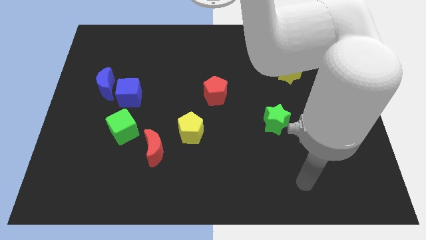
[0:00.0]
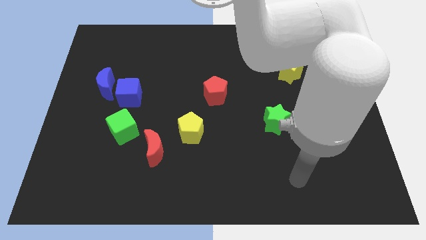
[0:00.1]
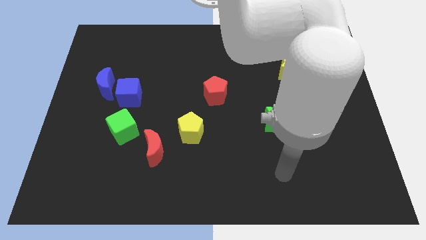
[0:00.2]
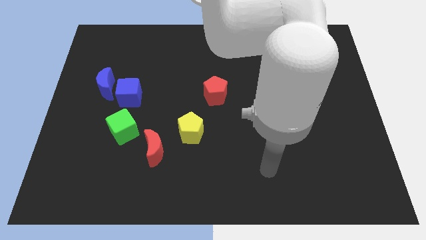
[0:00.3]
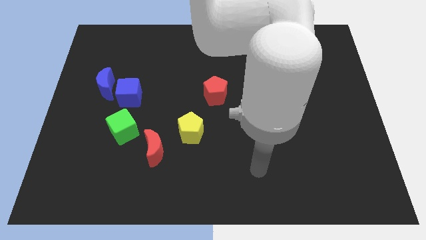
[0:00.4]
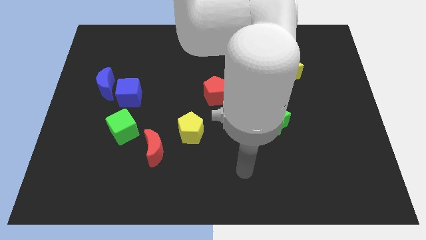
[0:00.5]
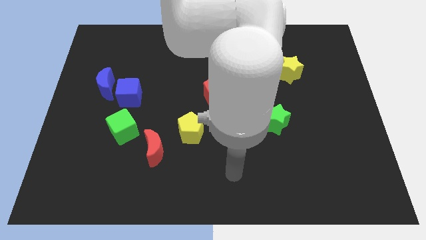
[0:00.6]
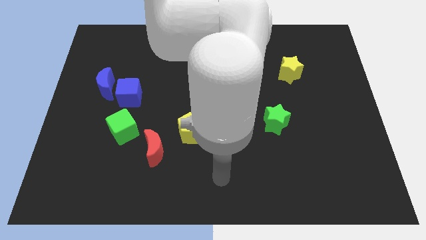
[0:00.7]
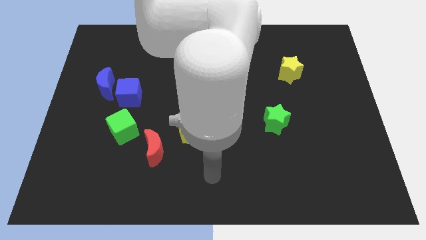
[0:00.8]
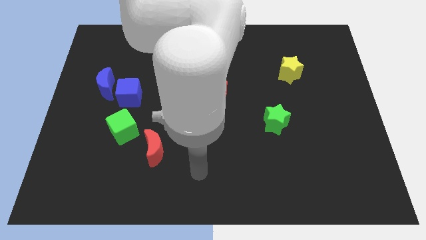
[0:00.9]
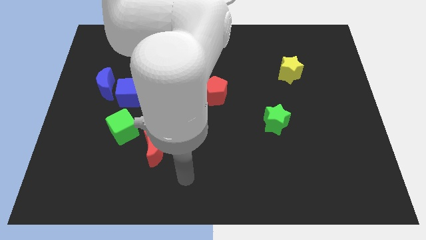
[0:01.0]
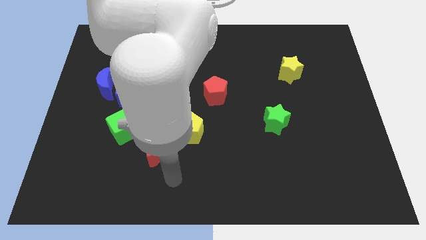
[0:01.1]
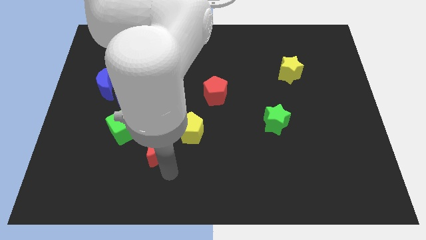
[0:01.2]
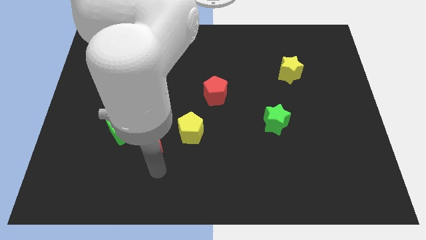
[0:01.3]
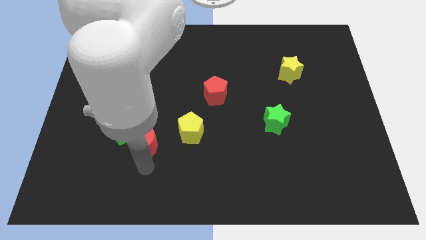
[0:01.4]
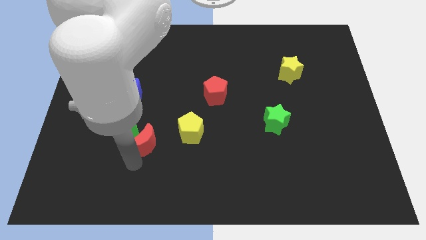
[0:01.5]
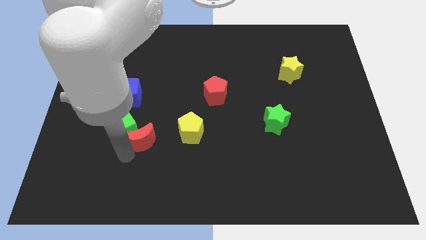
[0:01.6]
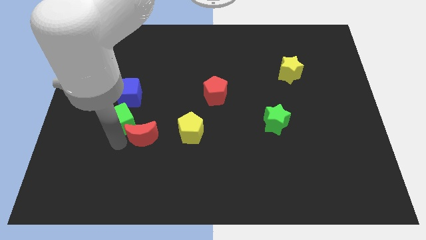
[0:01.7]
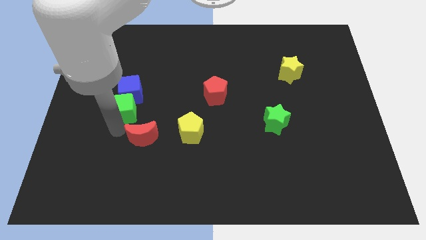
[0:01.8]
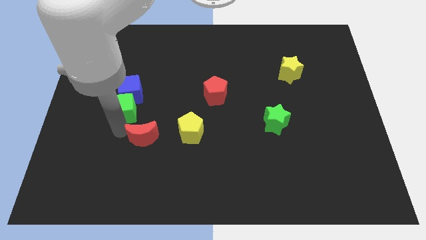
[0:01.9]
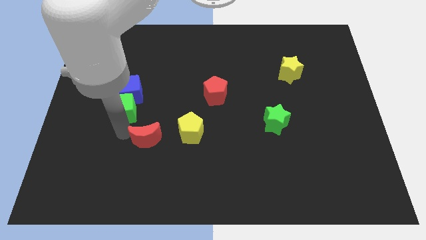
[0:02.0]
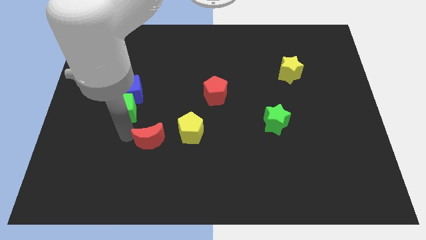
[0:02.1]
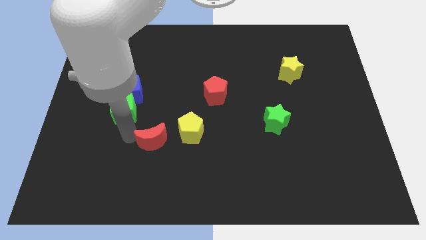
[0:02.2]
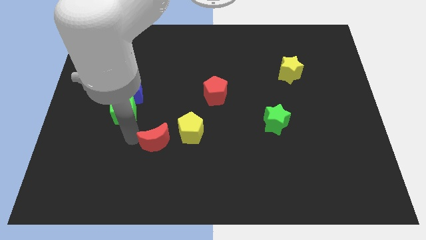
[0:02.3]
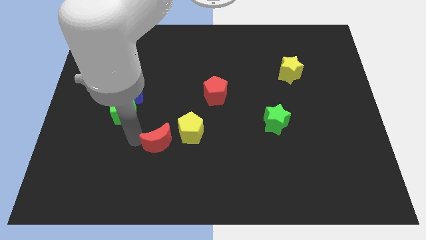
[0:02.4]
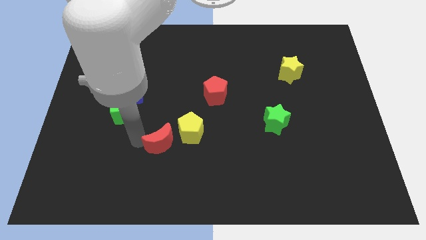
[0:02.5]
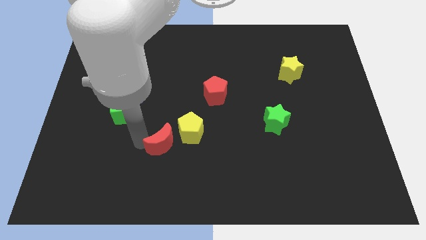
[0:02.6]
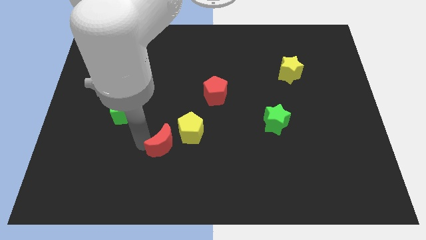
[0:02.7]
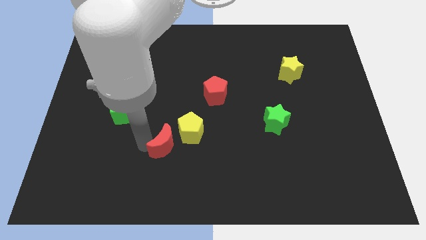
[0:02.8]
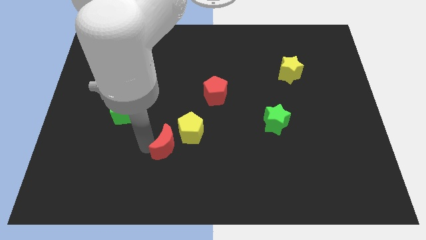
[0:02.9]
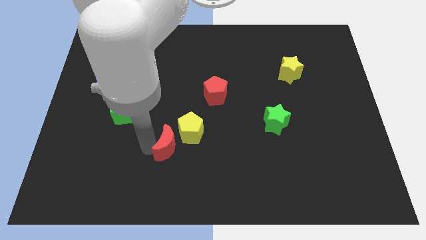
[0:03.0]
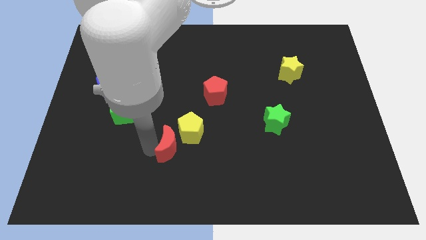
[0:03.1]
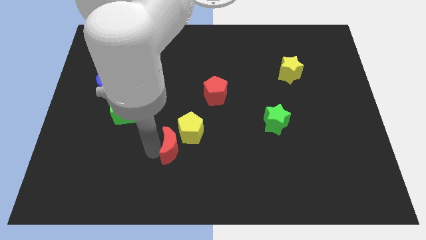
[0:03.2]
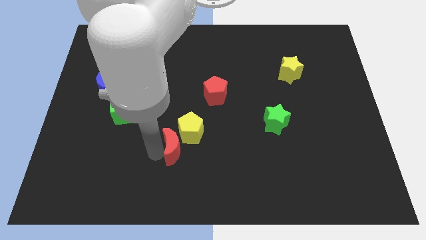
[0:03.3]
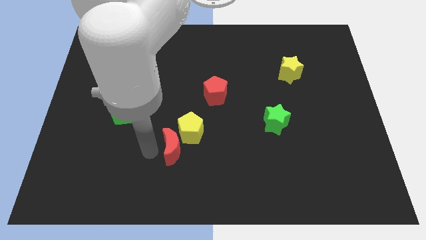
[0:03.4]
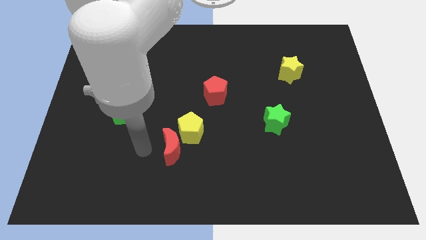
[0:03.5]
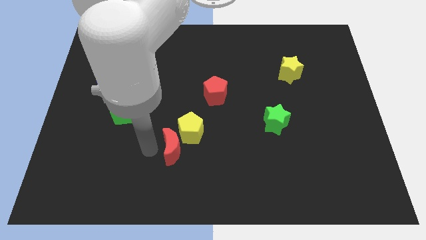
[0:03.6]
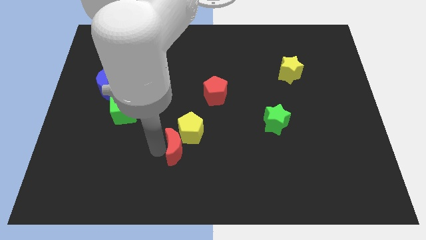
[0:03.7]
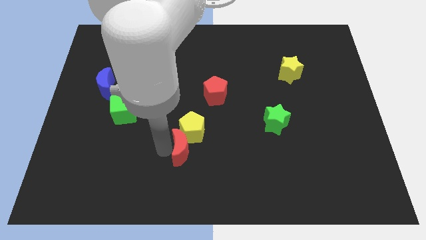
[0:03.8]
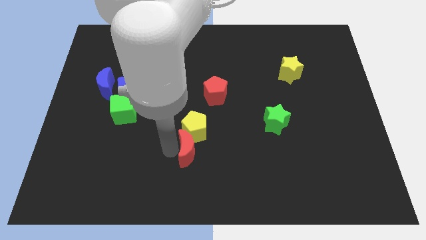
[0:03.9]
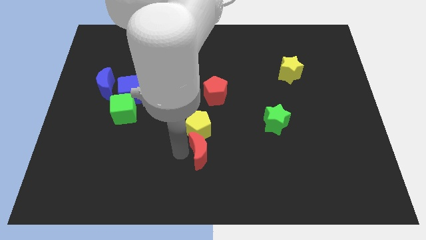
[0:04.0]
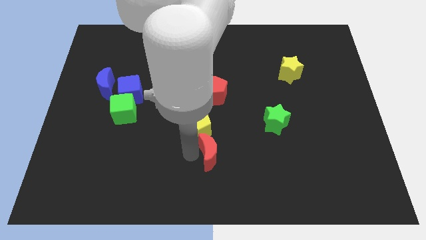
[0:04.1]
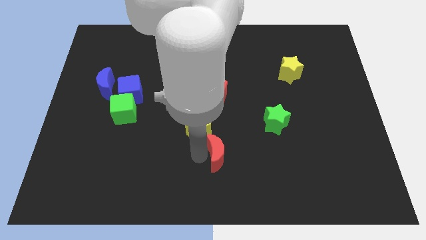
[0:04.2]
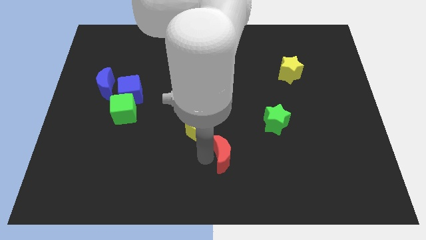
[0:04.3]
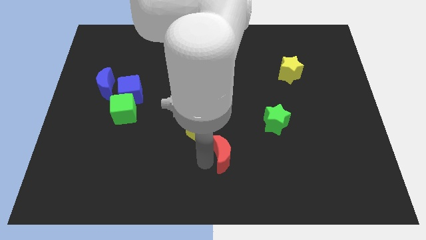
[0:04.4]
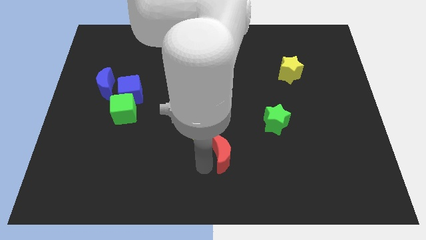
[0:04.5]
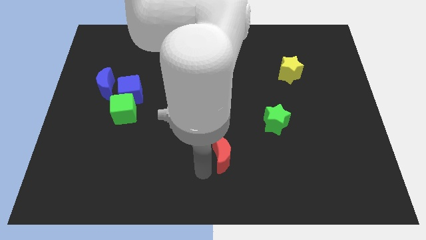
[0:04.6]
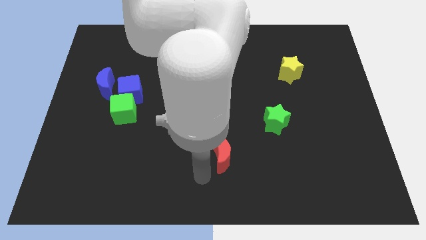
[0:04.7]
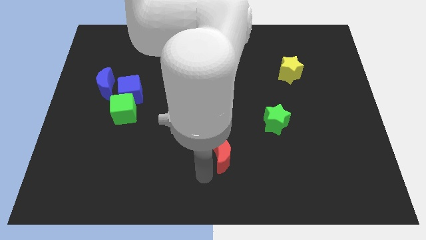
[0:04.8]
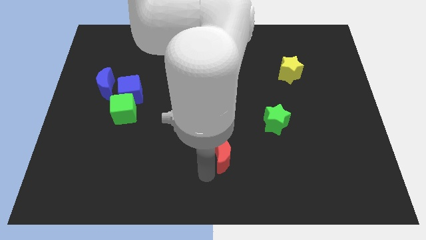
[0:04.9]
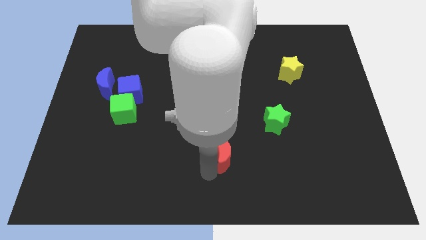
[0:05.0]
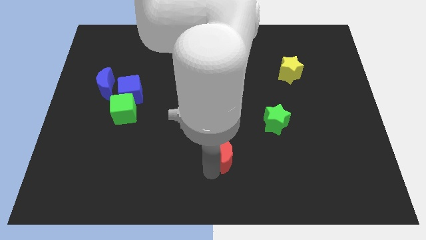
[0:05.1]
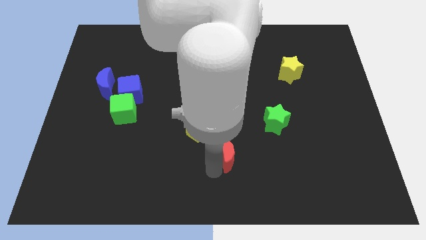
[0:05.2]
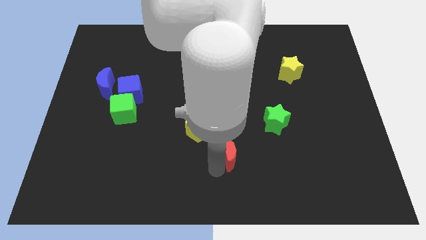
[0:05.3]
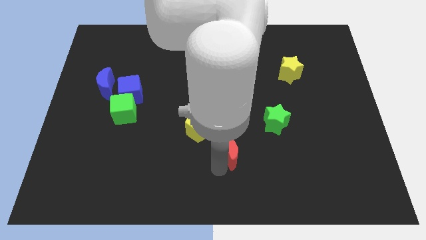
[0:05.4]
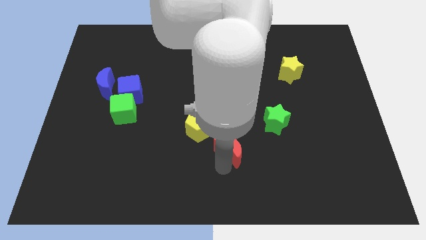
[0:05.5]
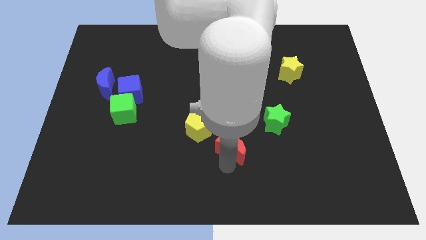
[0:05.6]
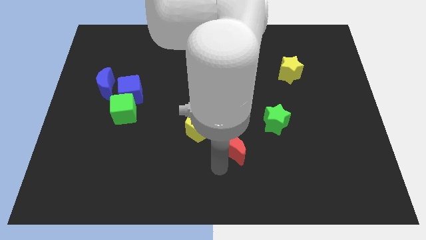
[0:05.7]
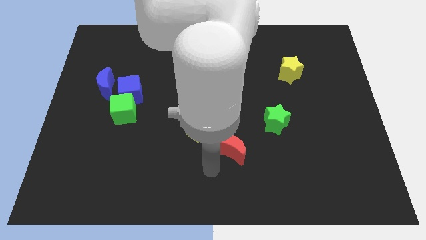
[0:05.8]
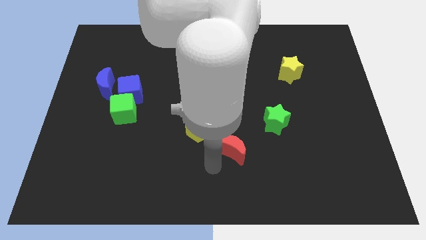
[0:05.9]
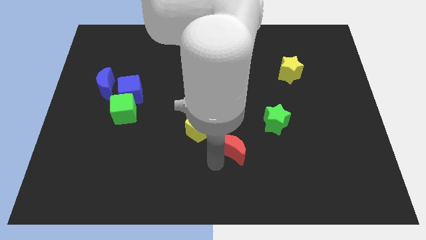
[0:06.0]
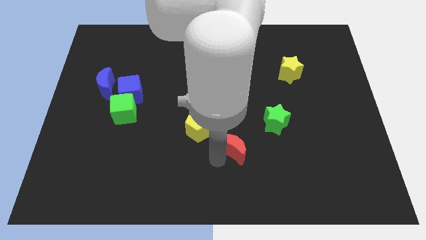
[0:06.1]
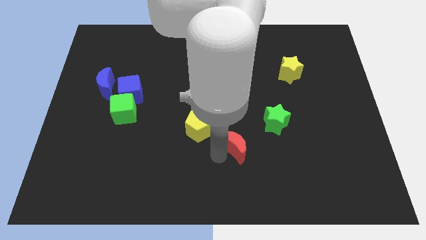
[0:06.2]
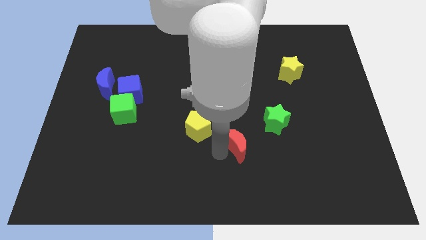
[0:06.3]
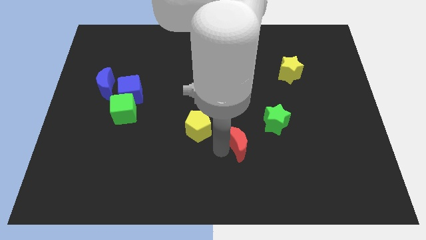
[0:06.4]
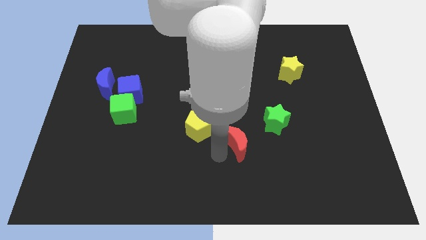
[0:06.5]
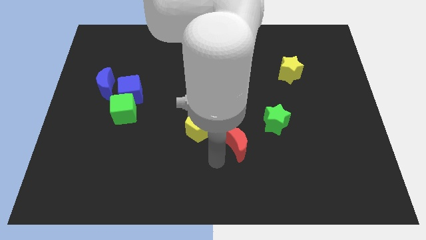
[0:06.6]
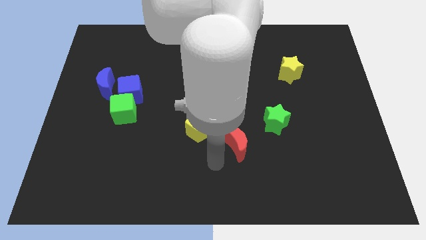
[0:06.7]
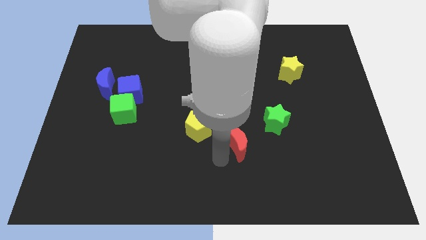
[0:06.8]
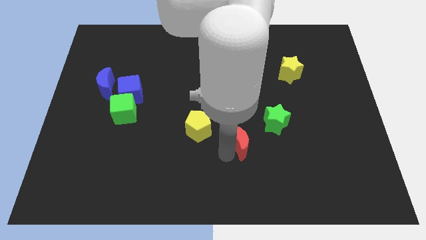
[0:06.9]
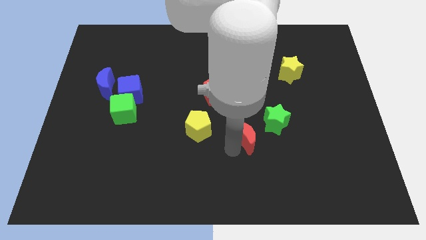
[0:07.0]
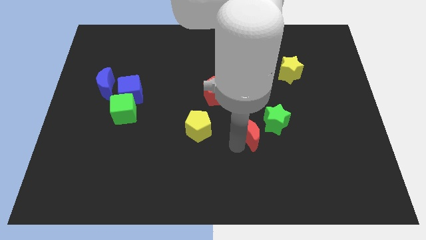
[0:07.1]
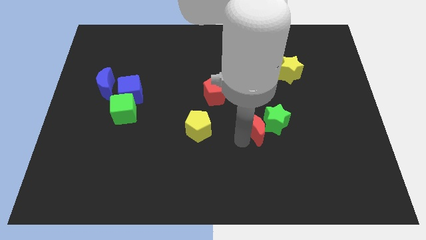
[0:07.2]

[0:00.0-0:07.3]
put the red moon to the green star

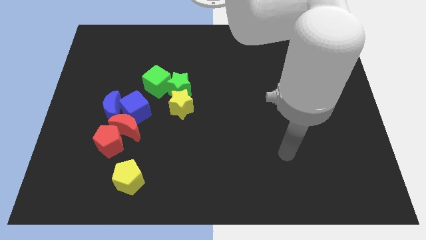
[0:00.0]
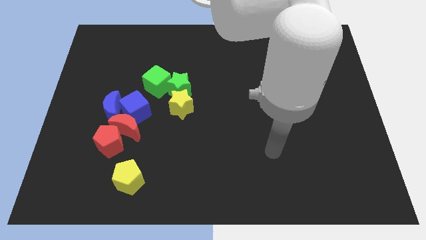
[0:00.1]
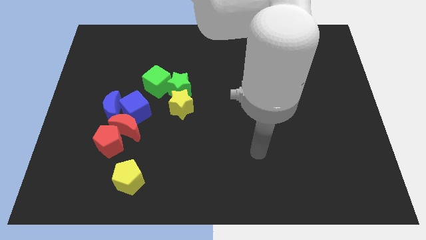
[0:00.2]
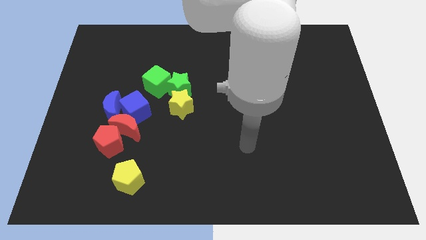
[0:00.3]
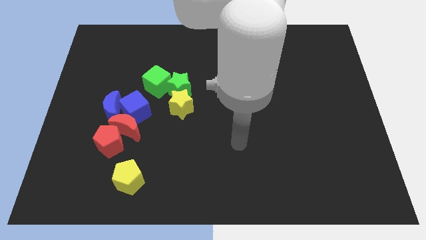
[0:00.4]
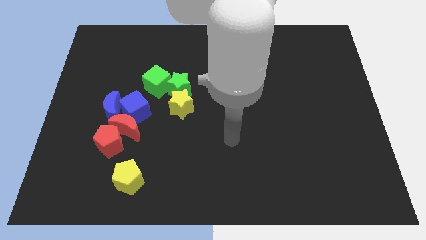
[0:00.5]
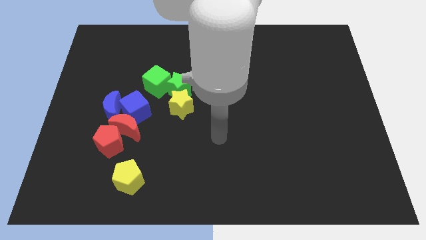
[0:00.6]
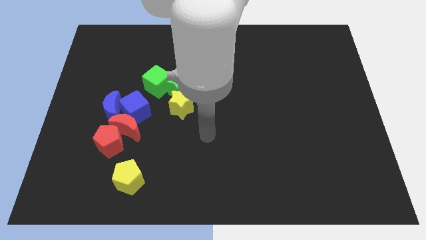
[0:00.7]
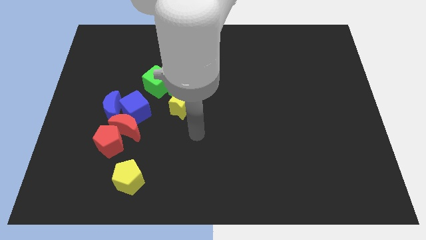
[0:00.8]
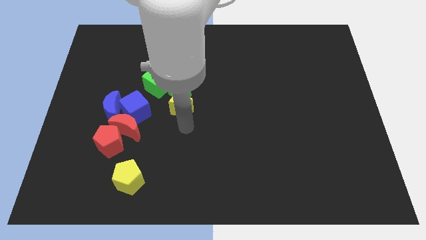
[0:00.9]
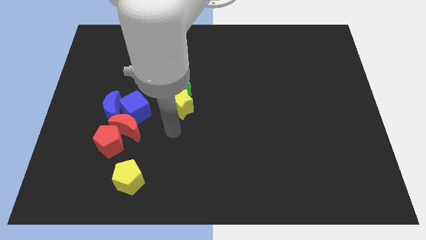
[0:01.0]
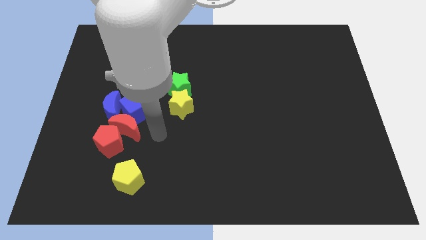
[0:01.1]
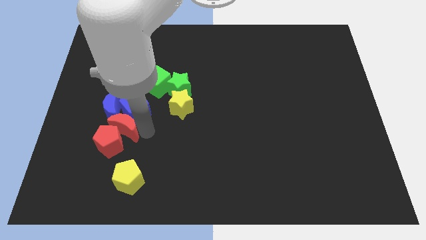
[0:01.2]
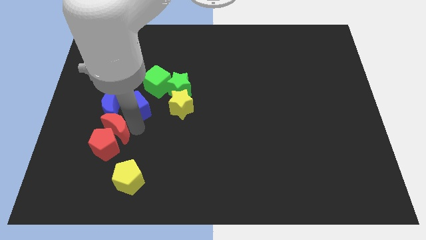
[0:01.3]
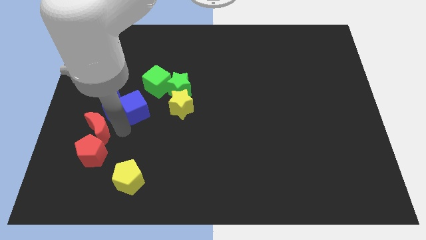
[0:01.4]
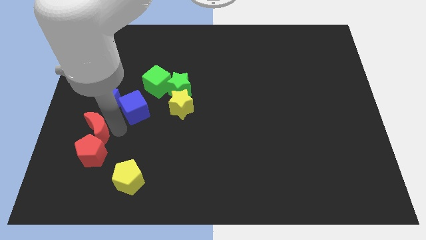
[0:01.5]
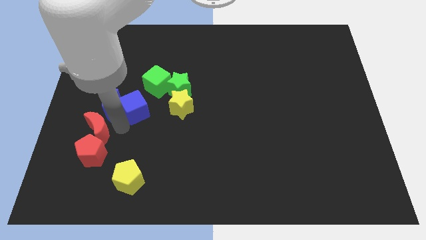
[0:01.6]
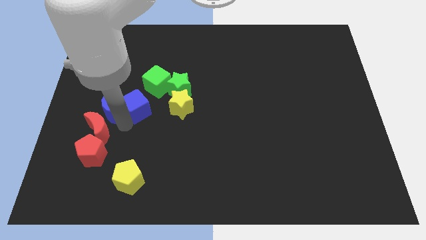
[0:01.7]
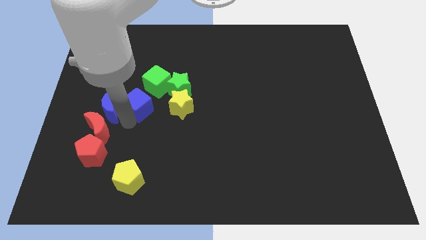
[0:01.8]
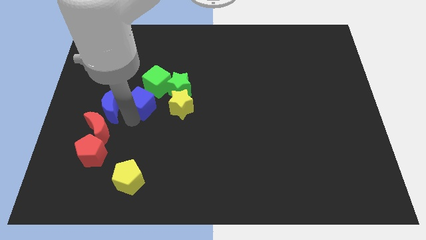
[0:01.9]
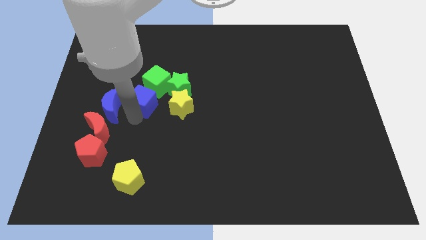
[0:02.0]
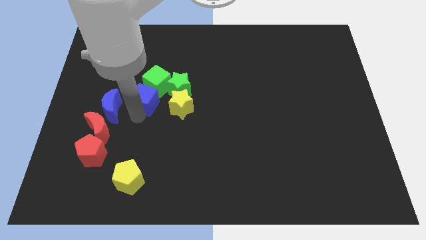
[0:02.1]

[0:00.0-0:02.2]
push the blue cube towards the green cube
